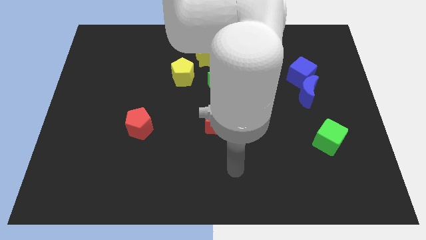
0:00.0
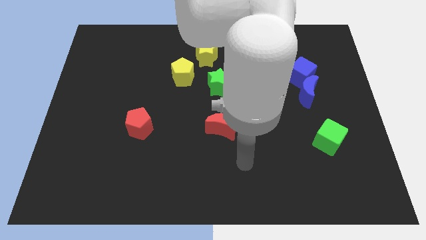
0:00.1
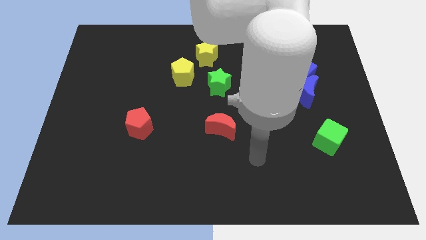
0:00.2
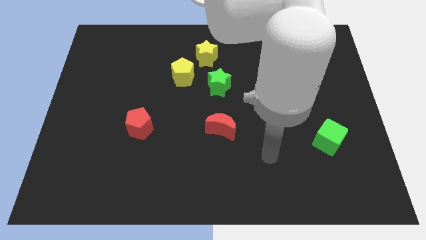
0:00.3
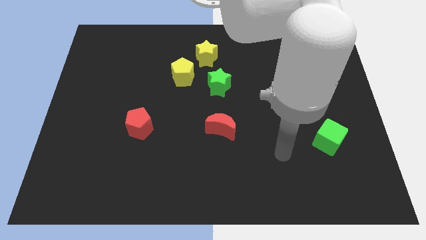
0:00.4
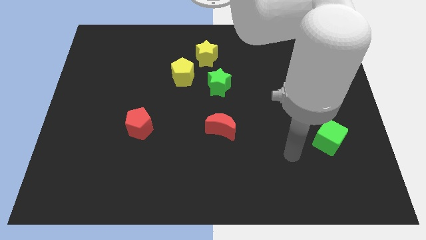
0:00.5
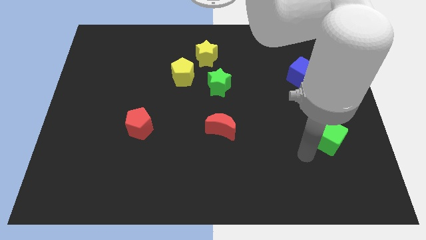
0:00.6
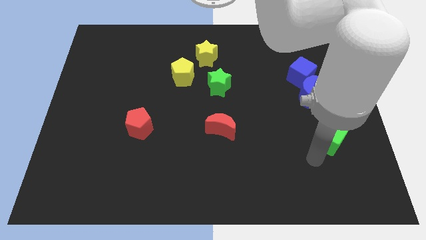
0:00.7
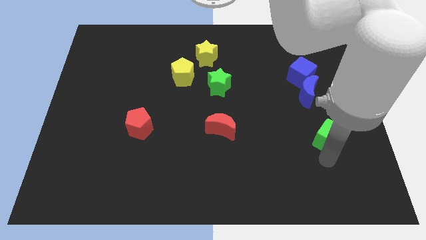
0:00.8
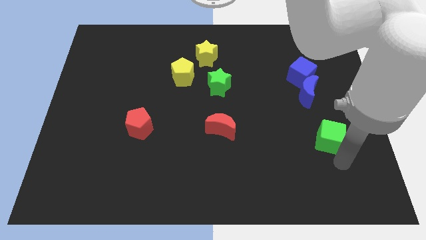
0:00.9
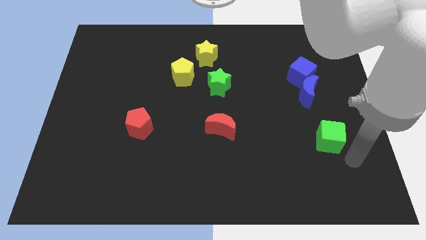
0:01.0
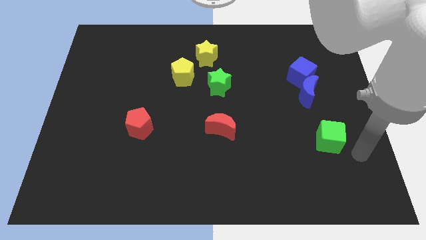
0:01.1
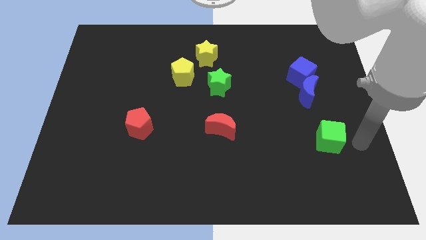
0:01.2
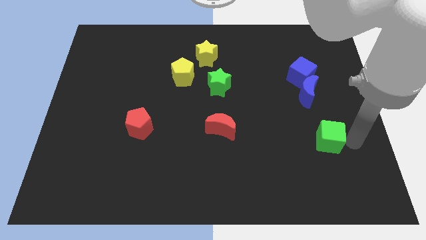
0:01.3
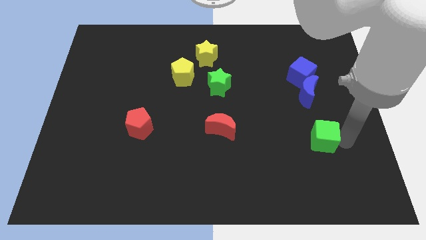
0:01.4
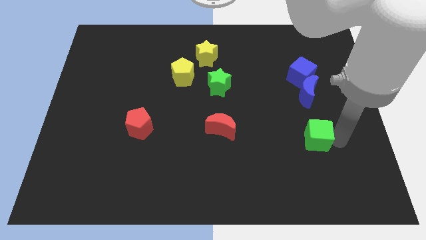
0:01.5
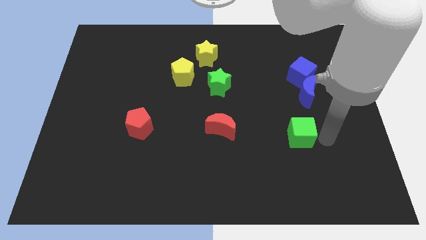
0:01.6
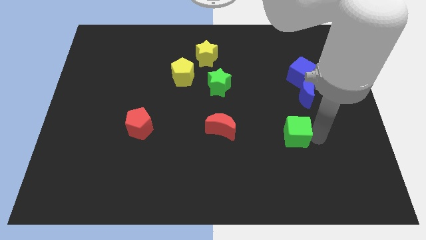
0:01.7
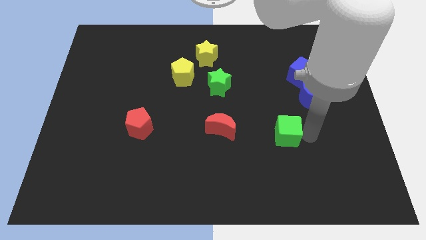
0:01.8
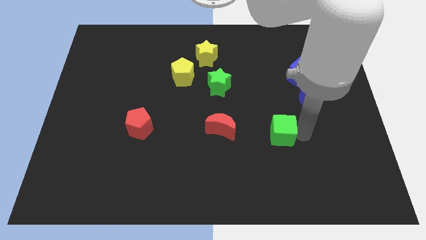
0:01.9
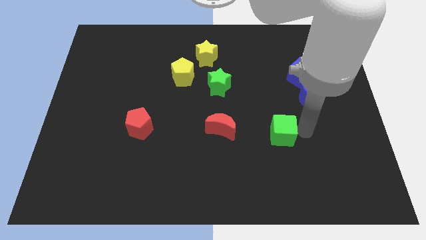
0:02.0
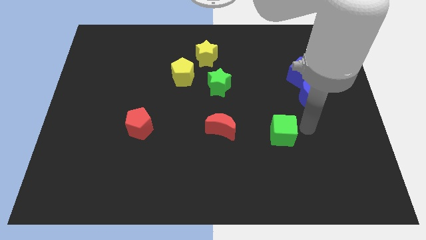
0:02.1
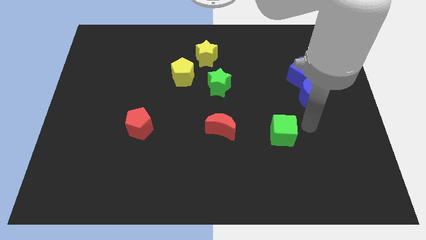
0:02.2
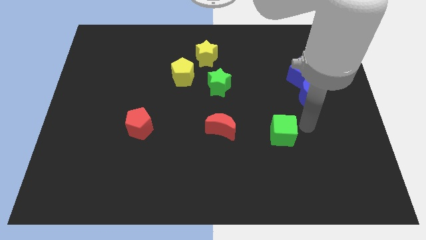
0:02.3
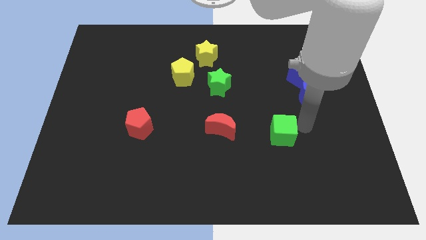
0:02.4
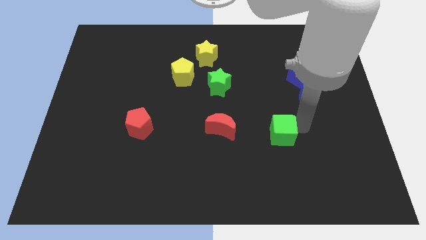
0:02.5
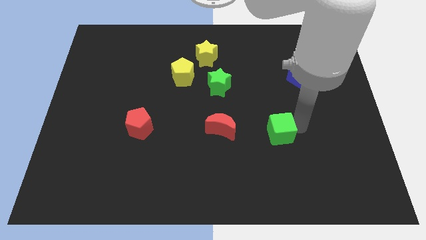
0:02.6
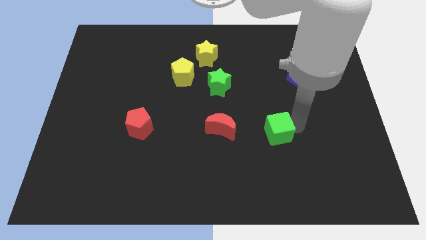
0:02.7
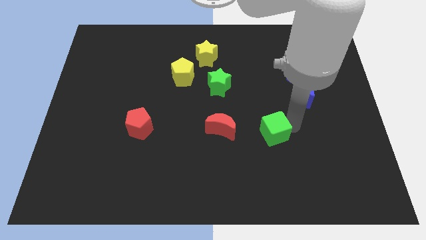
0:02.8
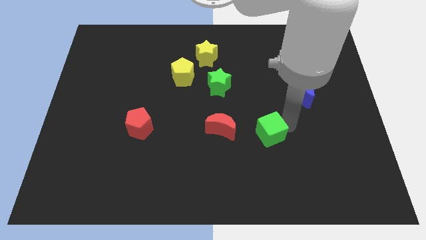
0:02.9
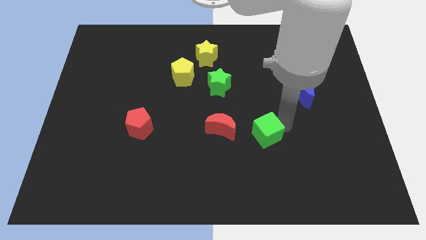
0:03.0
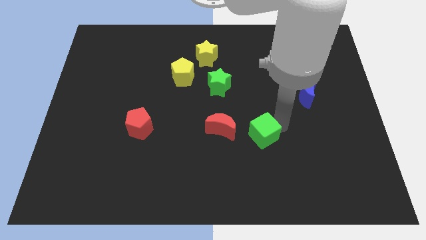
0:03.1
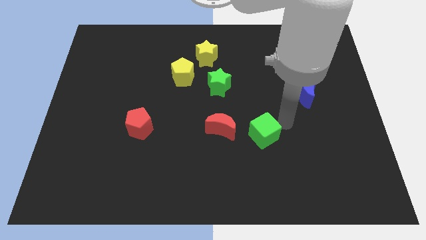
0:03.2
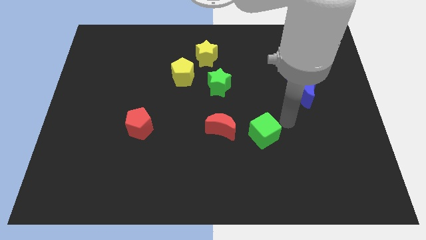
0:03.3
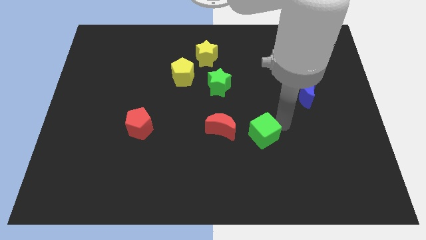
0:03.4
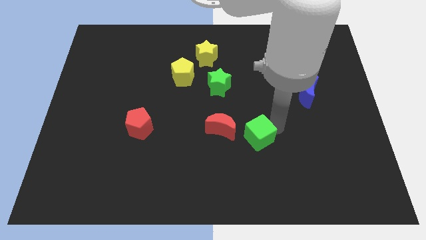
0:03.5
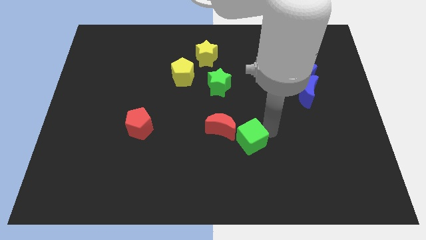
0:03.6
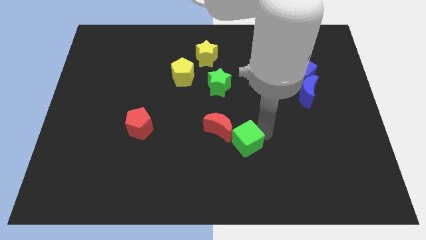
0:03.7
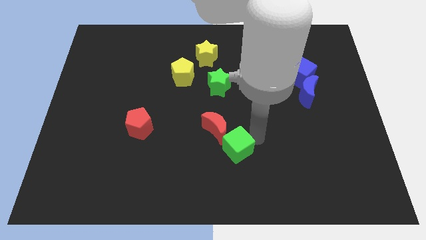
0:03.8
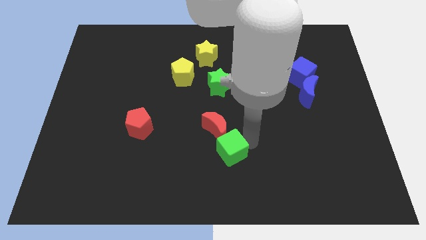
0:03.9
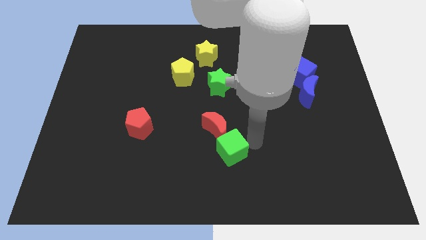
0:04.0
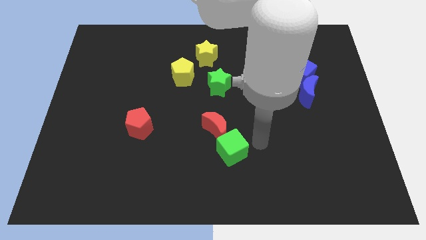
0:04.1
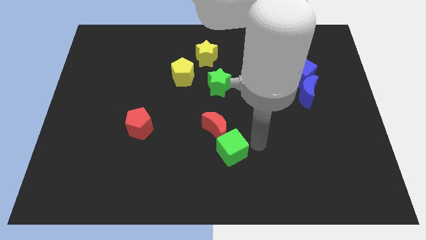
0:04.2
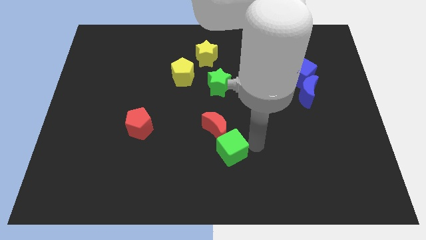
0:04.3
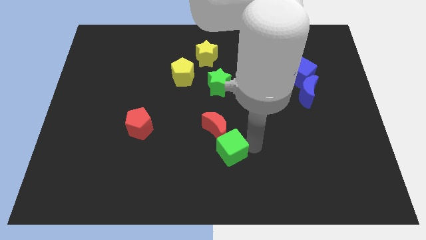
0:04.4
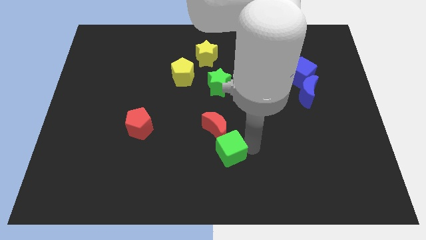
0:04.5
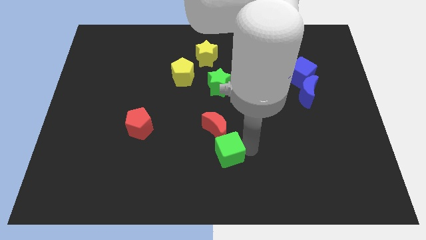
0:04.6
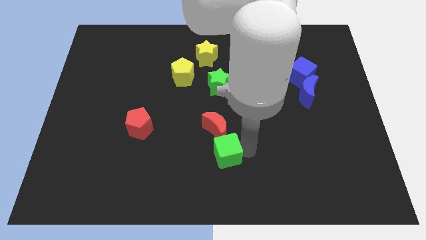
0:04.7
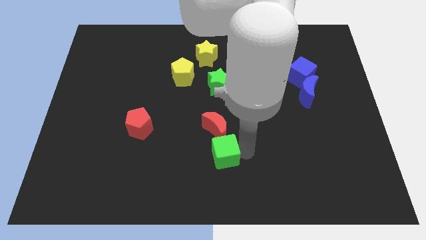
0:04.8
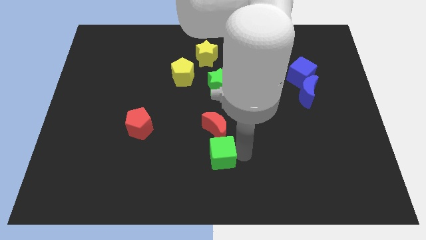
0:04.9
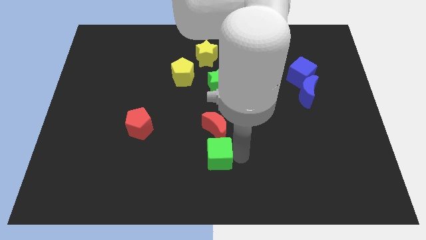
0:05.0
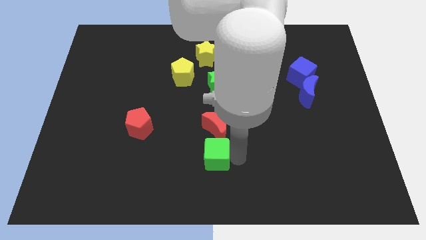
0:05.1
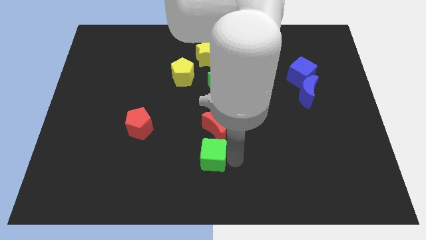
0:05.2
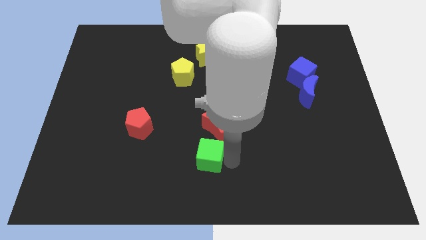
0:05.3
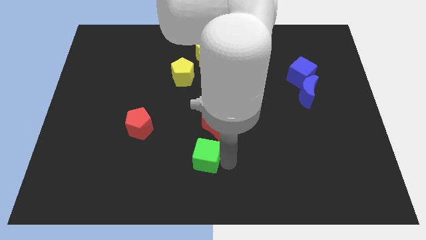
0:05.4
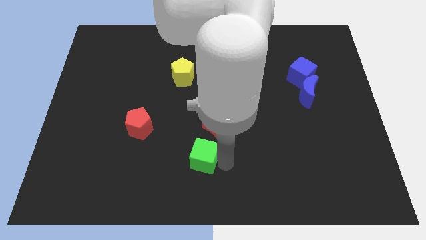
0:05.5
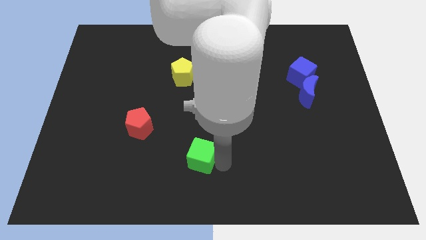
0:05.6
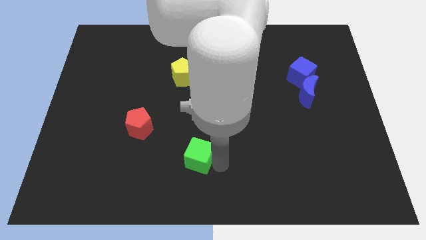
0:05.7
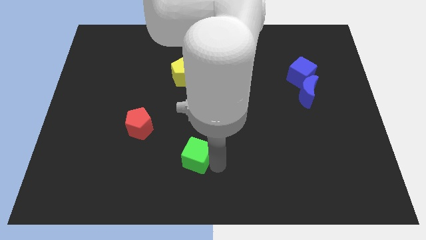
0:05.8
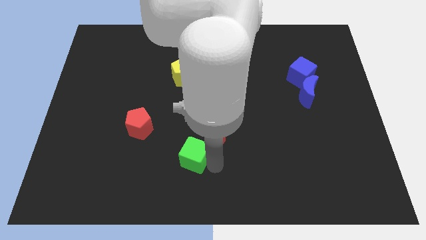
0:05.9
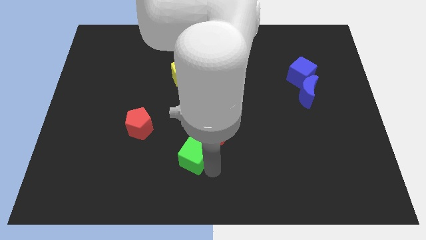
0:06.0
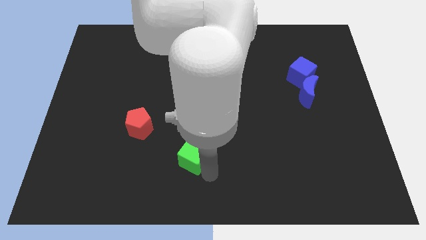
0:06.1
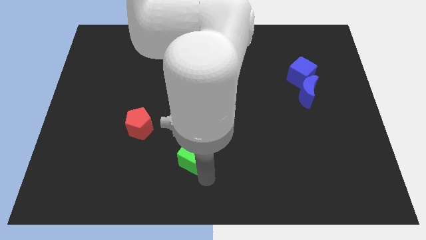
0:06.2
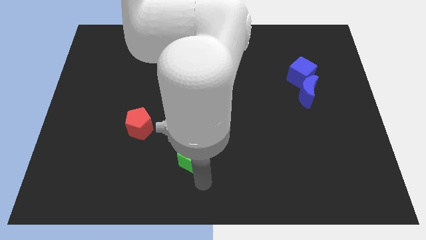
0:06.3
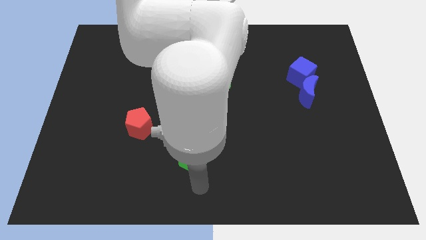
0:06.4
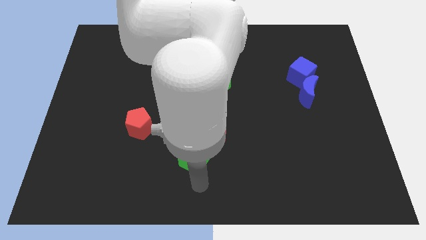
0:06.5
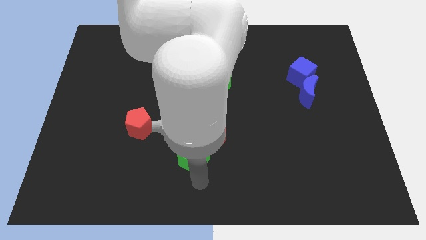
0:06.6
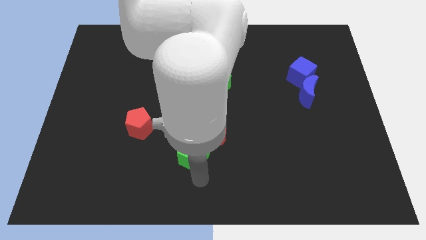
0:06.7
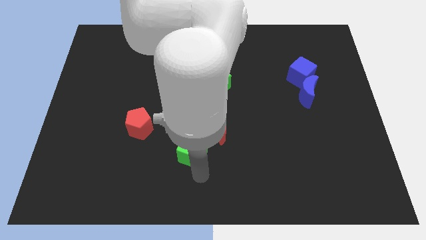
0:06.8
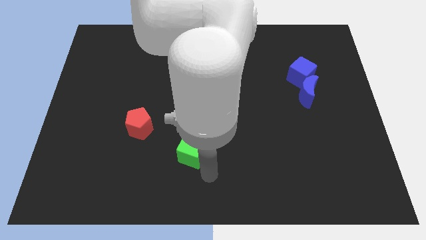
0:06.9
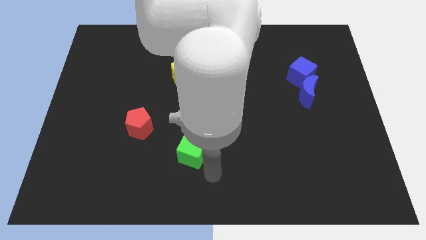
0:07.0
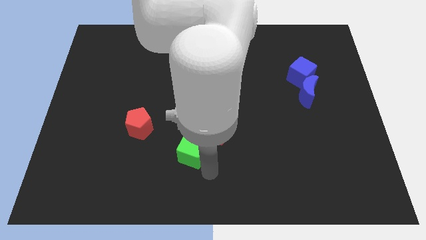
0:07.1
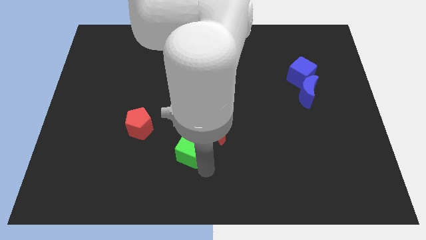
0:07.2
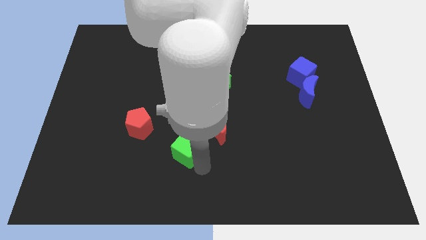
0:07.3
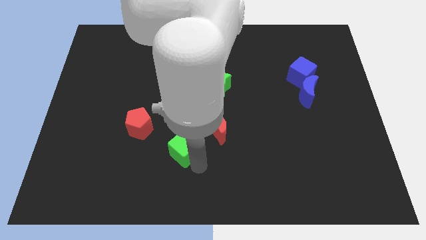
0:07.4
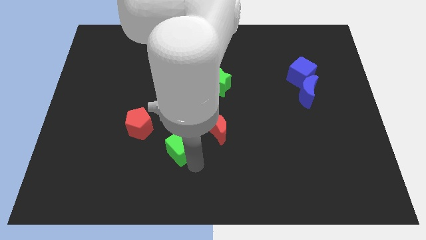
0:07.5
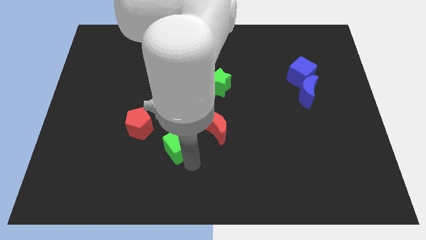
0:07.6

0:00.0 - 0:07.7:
move the green cube to the left of the red moon

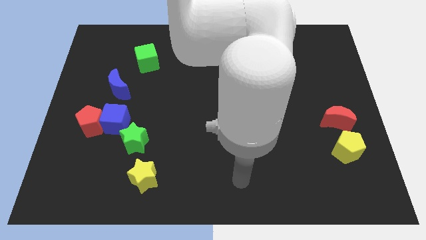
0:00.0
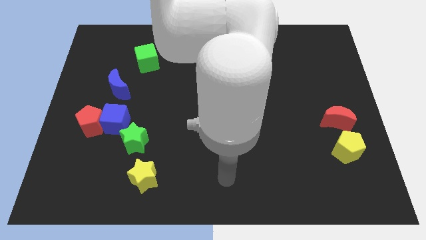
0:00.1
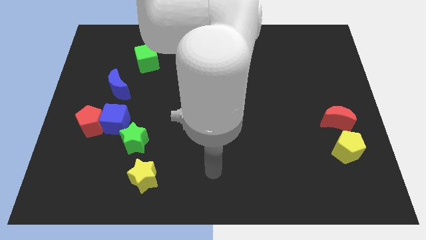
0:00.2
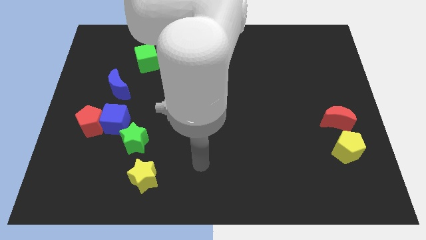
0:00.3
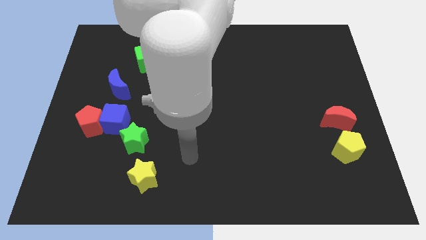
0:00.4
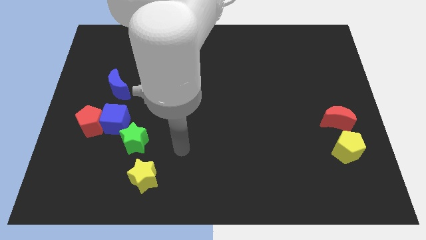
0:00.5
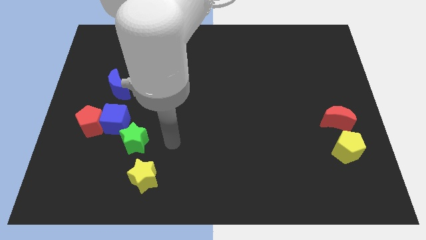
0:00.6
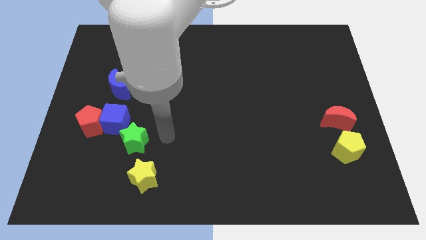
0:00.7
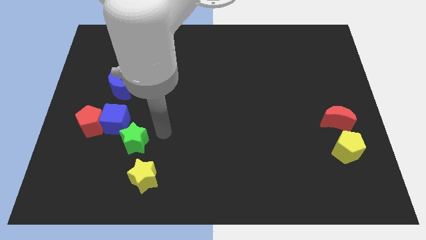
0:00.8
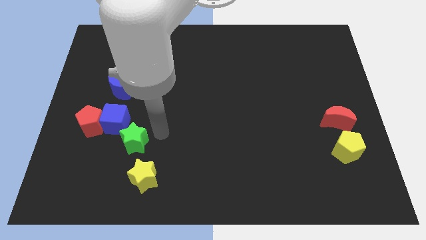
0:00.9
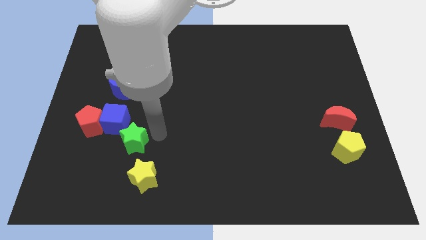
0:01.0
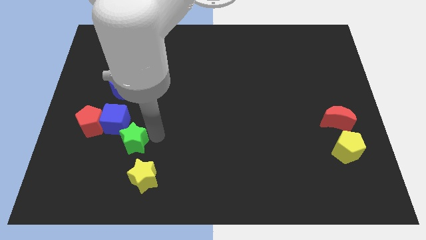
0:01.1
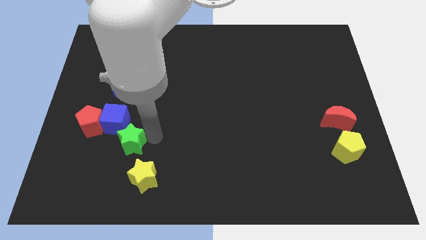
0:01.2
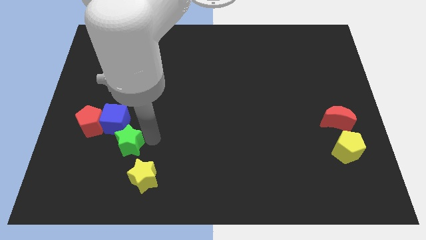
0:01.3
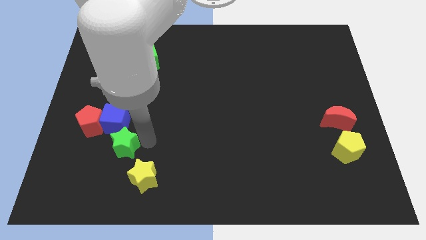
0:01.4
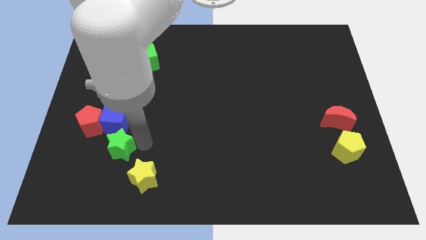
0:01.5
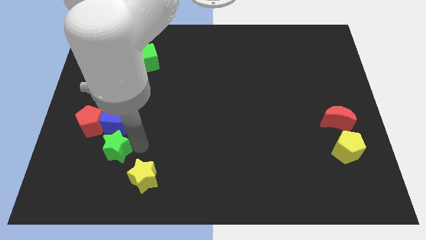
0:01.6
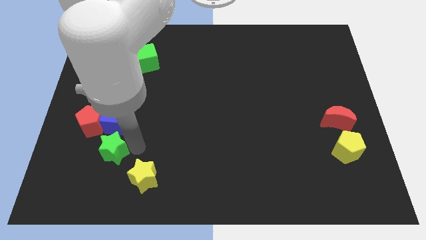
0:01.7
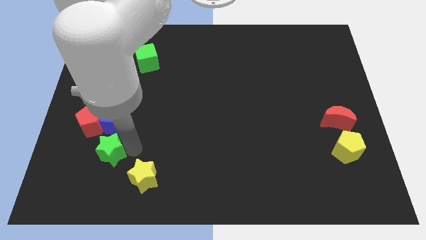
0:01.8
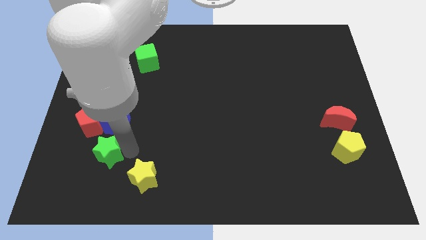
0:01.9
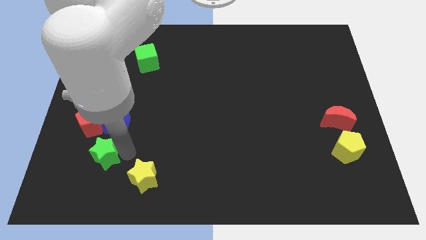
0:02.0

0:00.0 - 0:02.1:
move the green star to the bottom of the red pentagon
